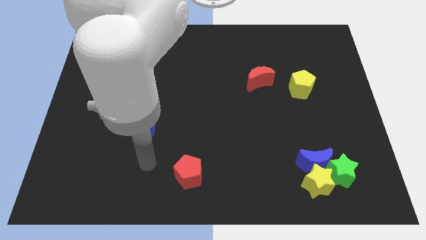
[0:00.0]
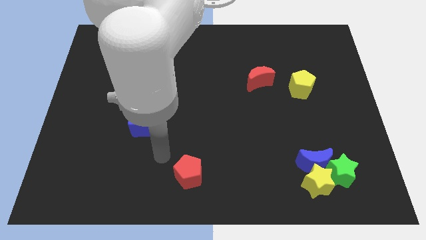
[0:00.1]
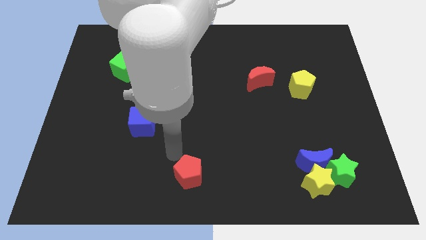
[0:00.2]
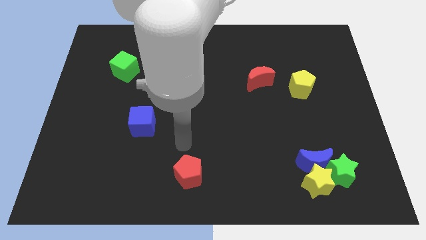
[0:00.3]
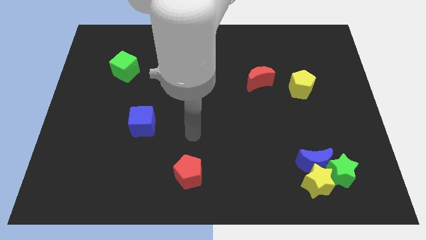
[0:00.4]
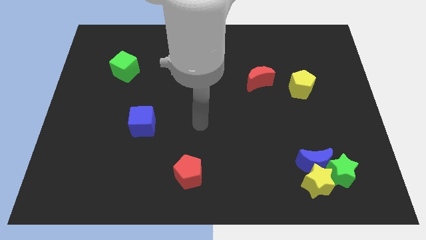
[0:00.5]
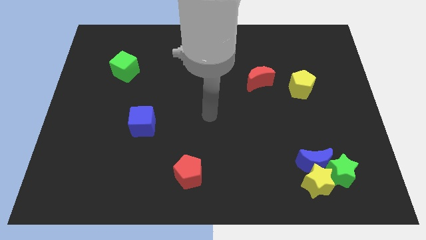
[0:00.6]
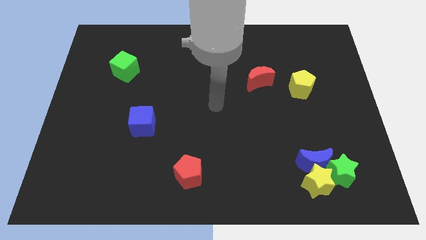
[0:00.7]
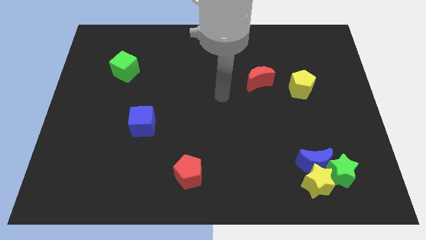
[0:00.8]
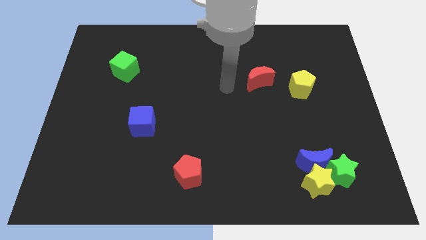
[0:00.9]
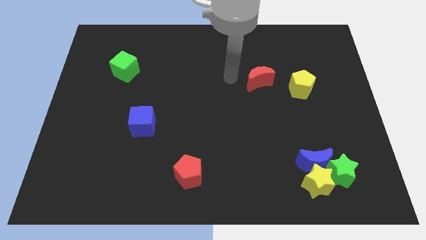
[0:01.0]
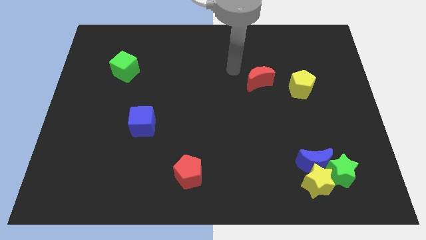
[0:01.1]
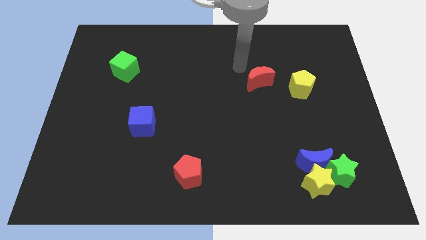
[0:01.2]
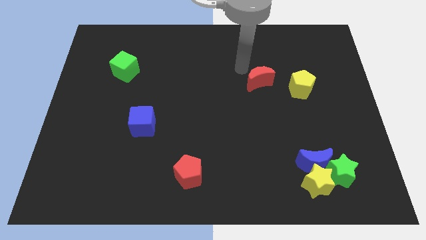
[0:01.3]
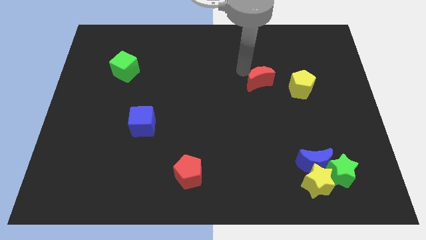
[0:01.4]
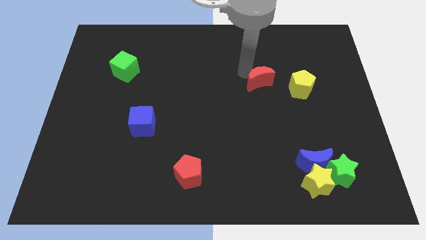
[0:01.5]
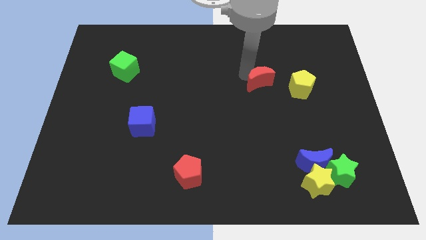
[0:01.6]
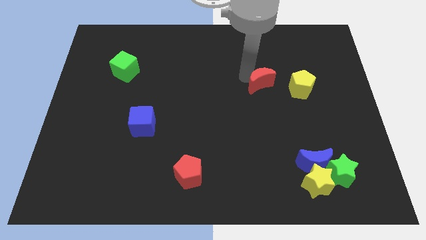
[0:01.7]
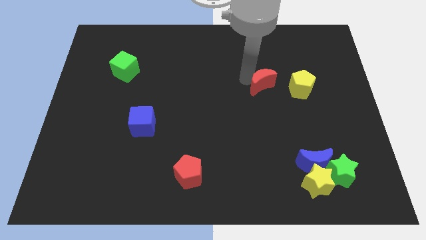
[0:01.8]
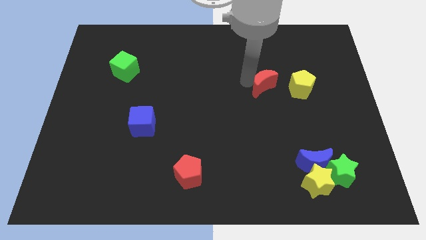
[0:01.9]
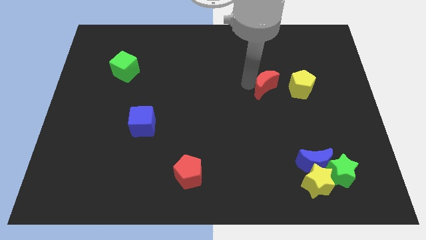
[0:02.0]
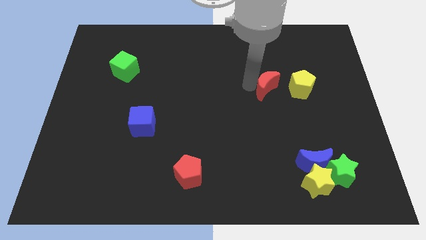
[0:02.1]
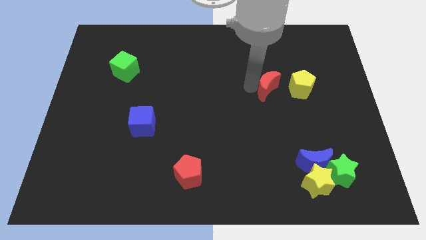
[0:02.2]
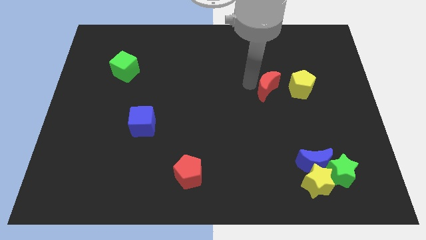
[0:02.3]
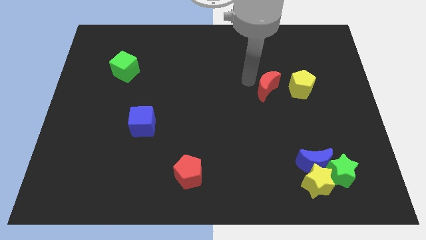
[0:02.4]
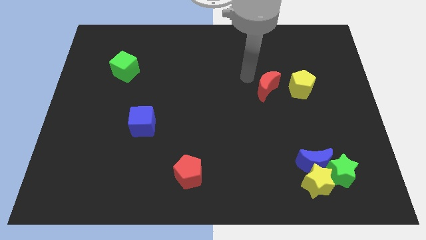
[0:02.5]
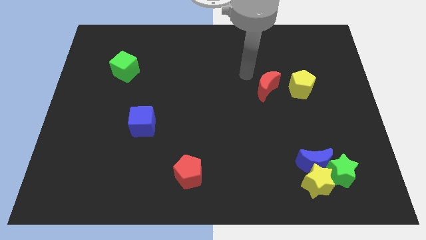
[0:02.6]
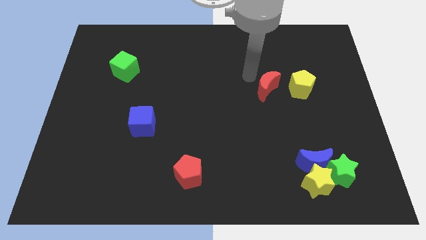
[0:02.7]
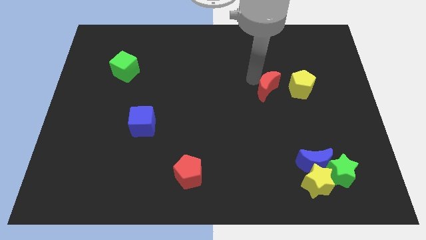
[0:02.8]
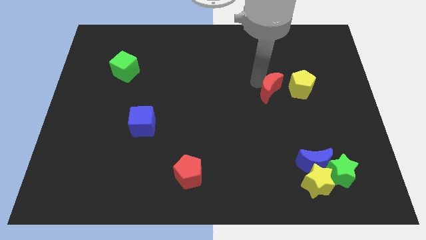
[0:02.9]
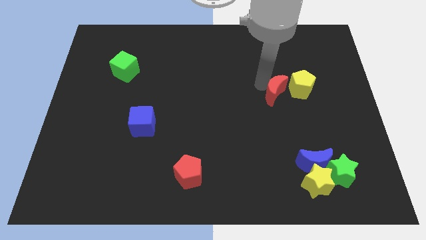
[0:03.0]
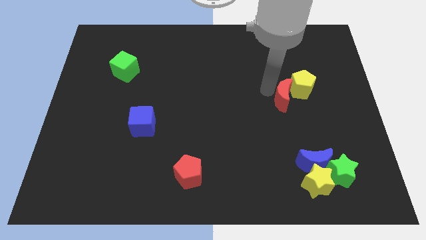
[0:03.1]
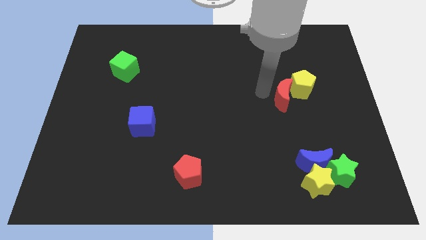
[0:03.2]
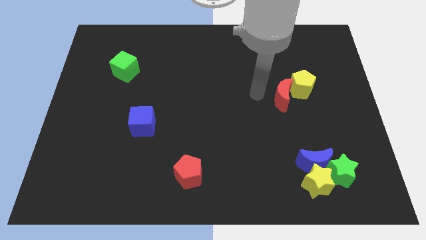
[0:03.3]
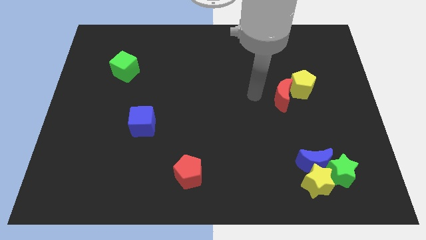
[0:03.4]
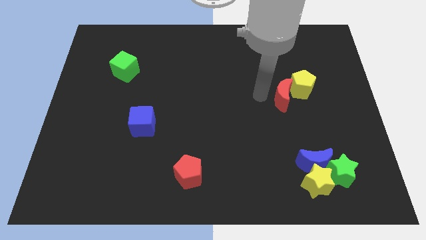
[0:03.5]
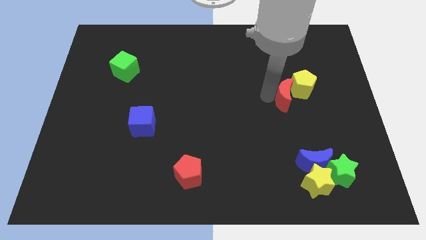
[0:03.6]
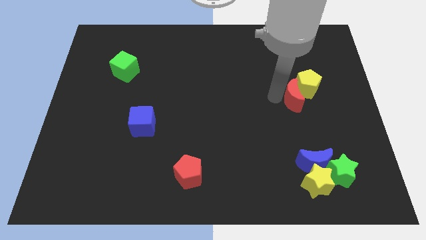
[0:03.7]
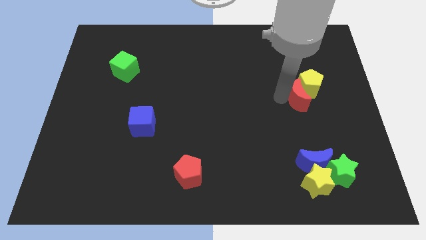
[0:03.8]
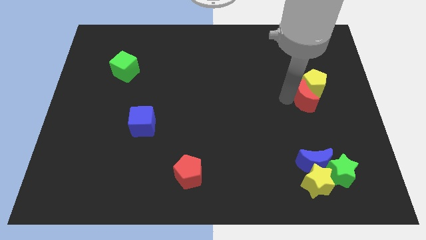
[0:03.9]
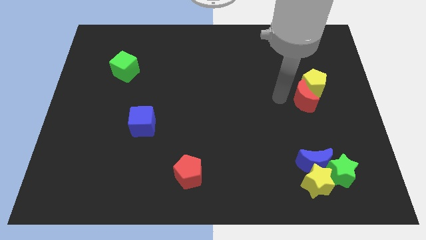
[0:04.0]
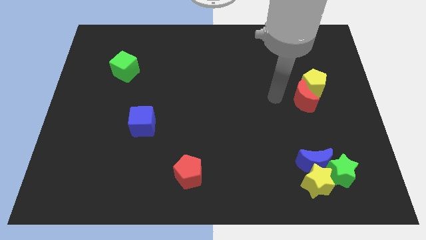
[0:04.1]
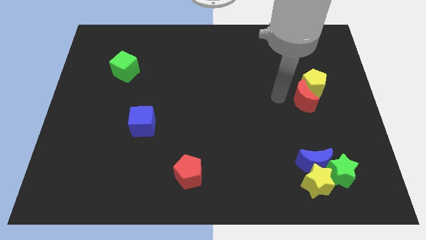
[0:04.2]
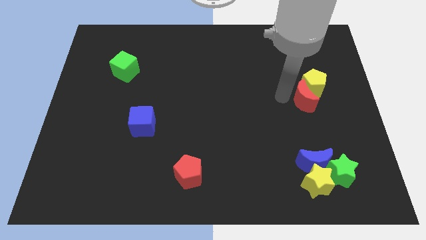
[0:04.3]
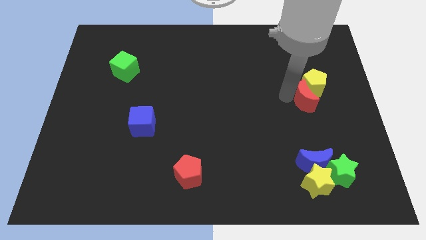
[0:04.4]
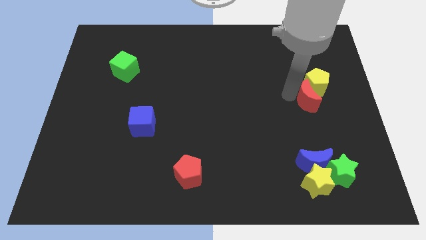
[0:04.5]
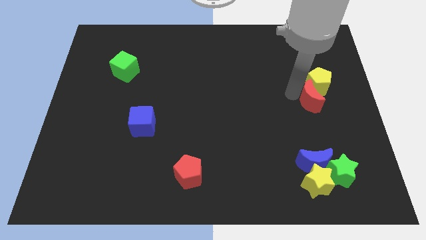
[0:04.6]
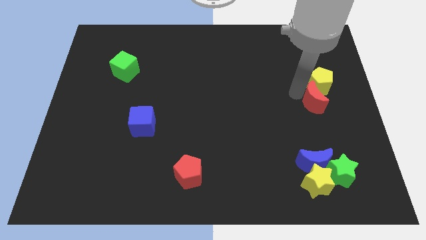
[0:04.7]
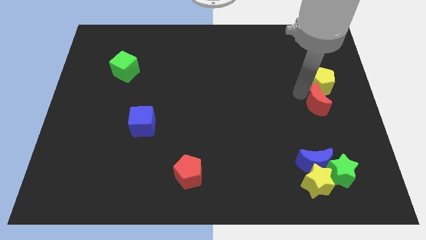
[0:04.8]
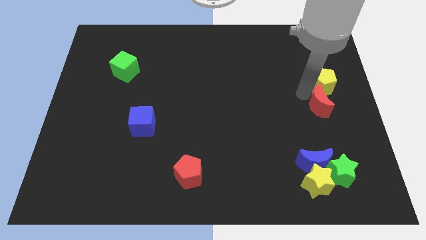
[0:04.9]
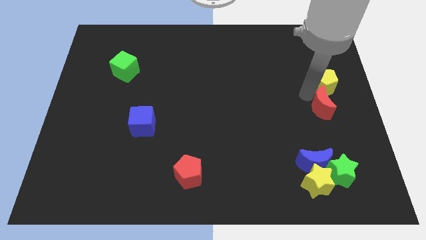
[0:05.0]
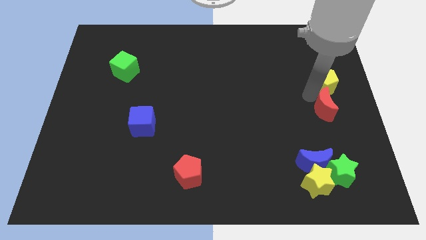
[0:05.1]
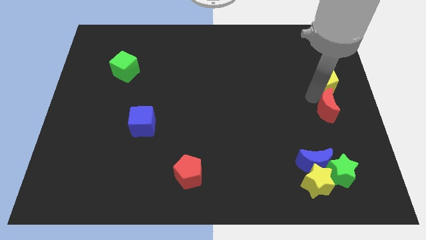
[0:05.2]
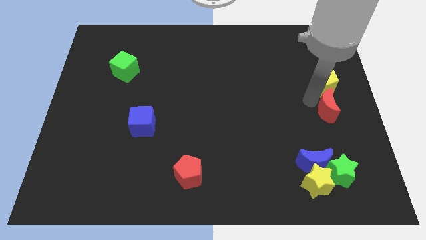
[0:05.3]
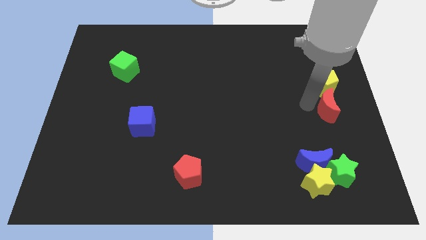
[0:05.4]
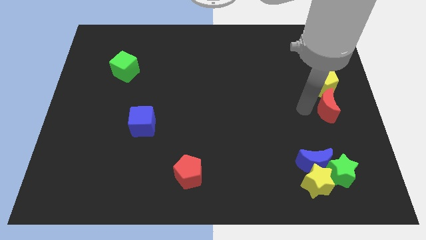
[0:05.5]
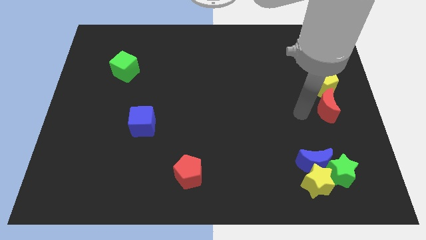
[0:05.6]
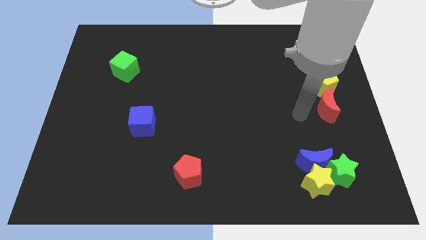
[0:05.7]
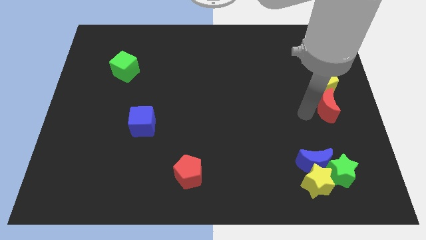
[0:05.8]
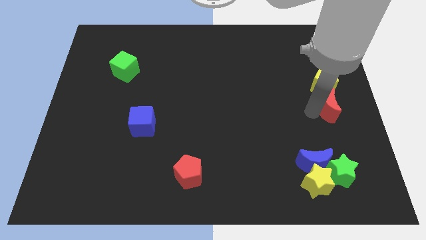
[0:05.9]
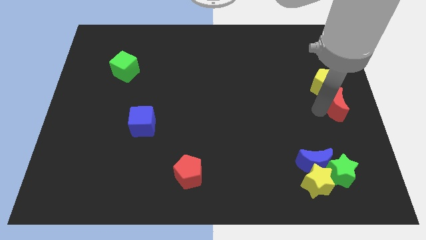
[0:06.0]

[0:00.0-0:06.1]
slide the red moon to the bottom right side of the yellow pentagon
